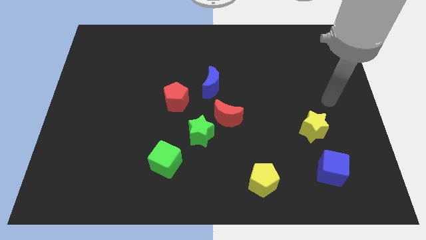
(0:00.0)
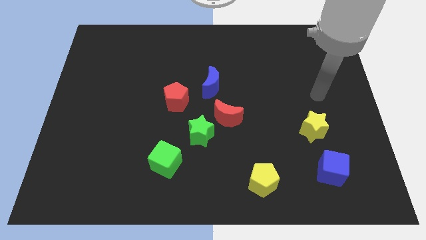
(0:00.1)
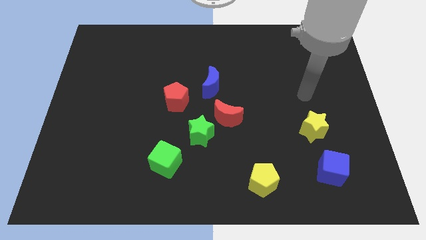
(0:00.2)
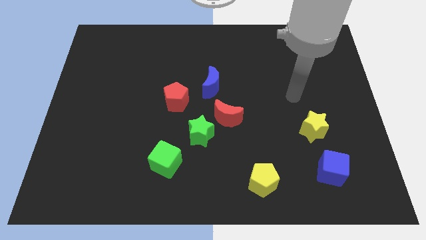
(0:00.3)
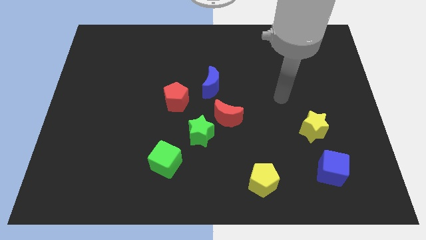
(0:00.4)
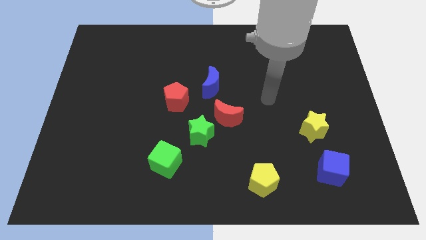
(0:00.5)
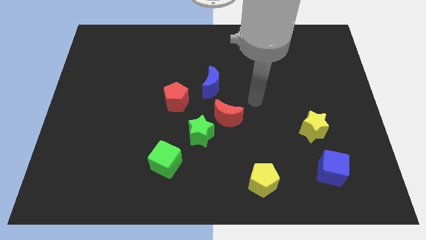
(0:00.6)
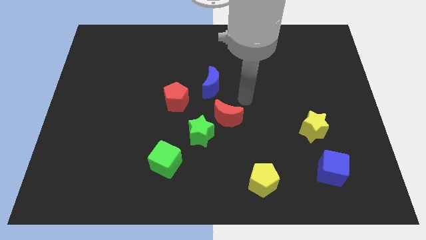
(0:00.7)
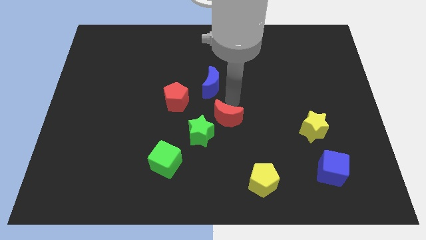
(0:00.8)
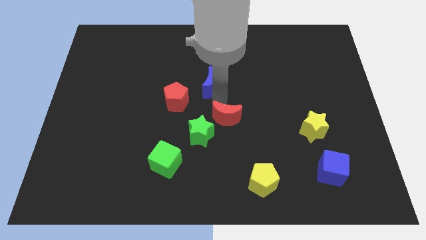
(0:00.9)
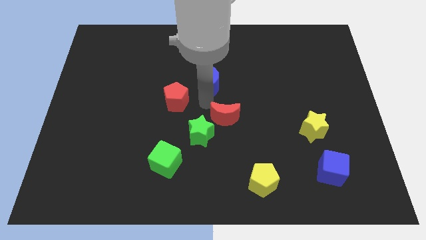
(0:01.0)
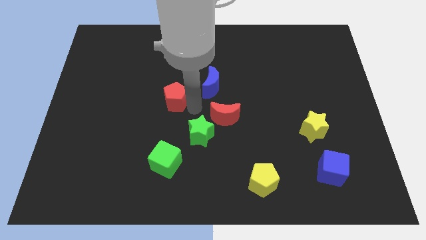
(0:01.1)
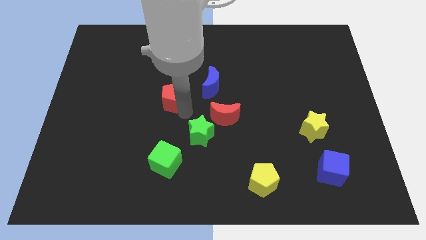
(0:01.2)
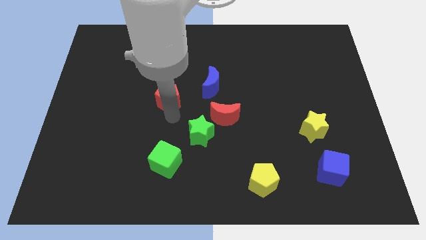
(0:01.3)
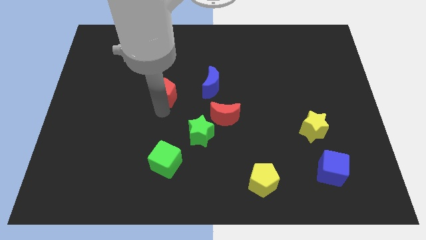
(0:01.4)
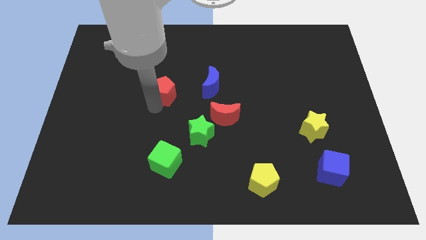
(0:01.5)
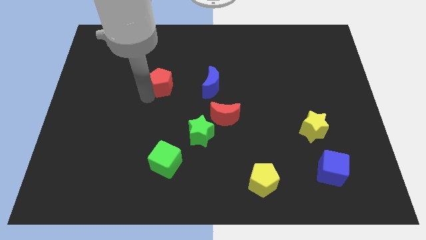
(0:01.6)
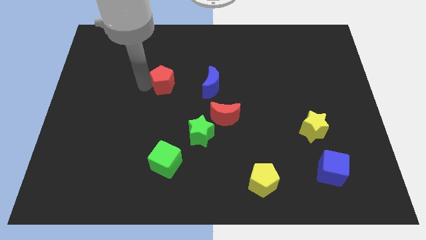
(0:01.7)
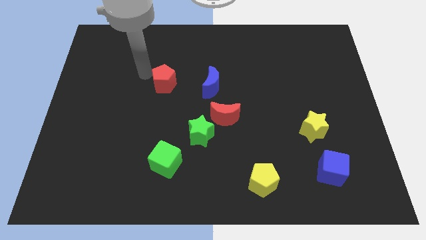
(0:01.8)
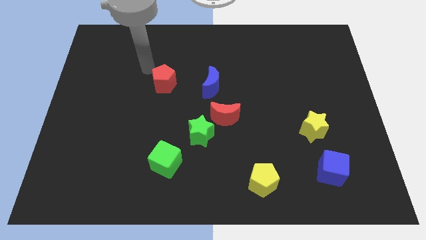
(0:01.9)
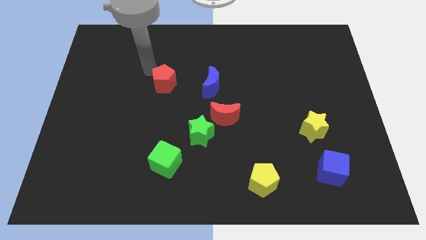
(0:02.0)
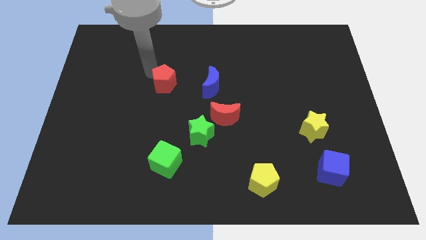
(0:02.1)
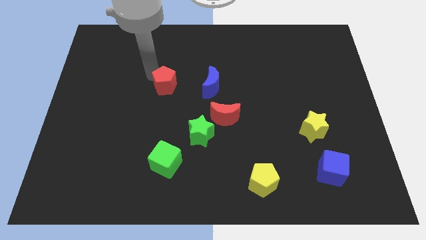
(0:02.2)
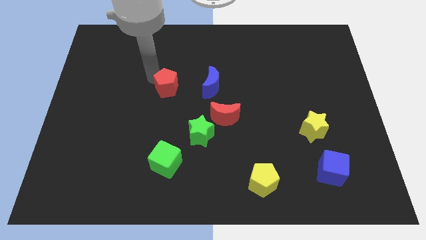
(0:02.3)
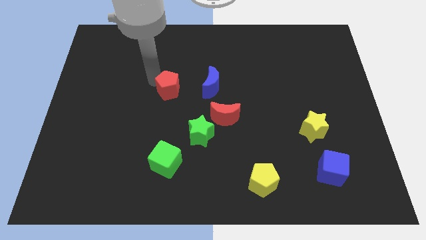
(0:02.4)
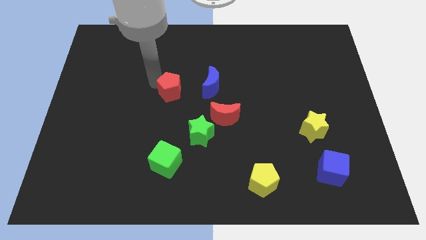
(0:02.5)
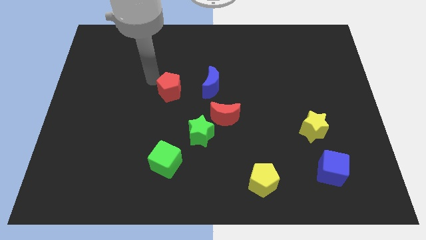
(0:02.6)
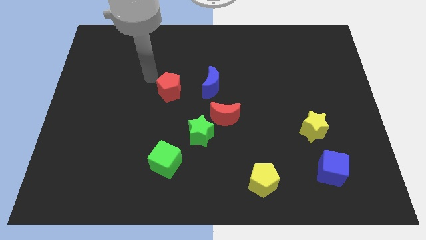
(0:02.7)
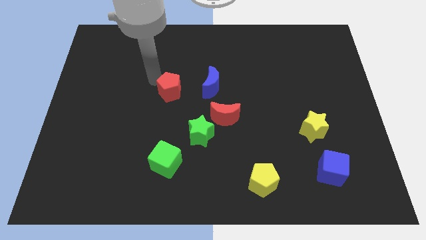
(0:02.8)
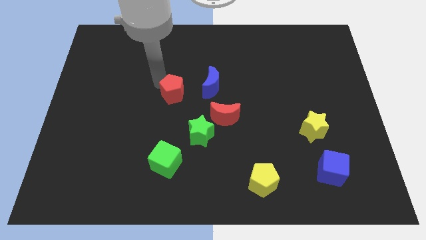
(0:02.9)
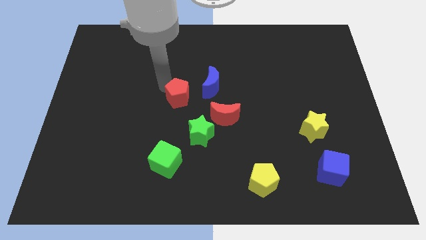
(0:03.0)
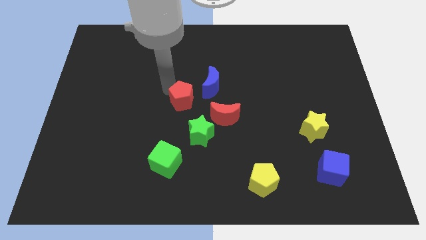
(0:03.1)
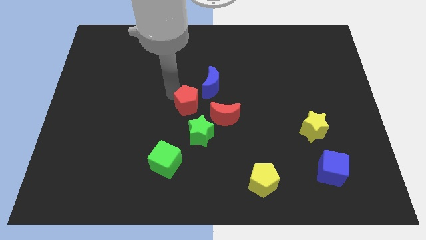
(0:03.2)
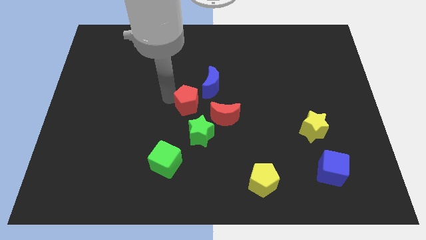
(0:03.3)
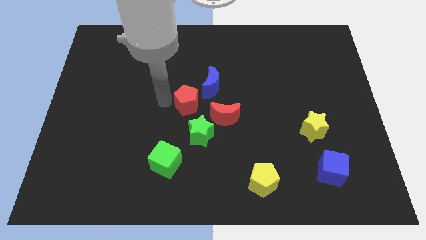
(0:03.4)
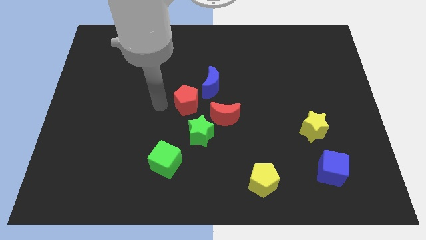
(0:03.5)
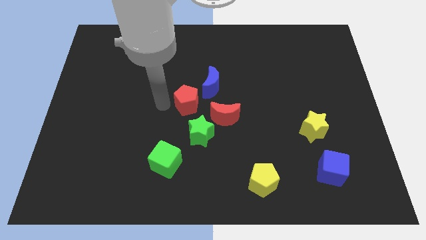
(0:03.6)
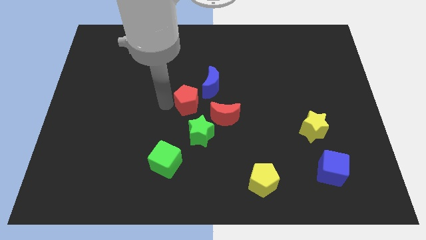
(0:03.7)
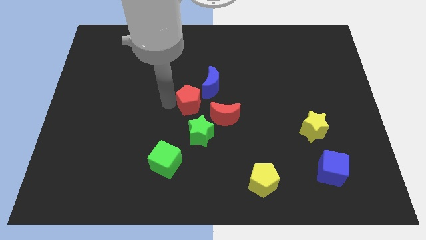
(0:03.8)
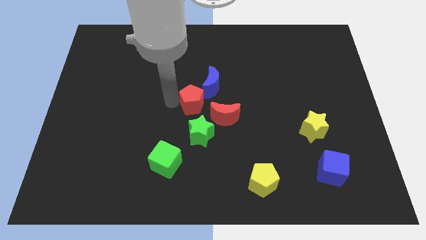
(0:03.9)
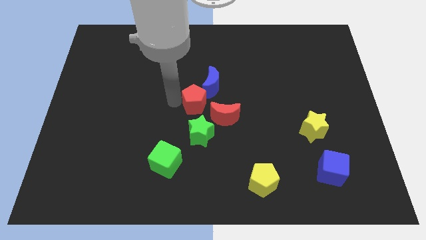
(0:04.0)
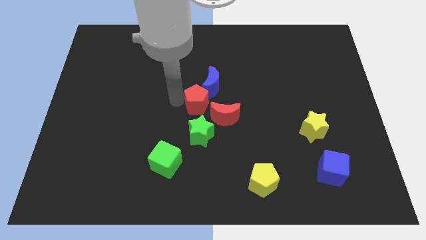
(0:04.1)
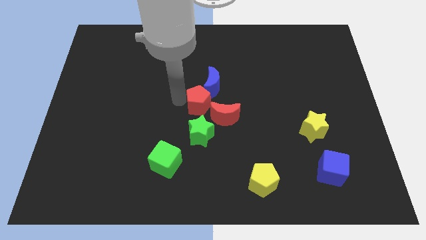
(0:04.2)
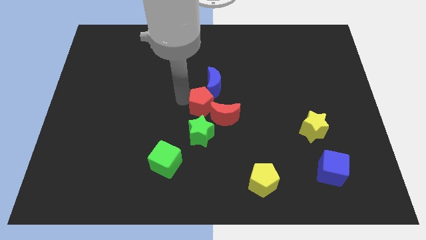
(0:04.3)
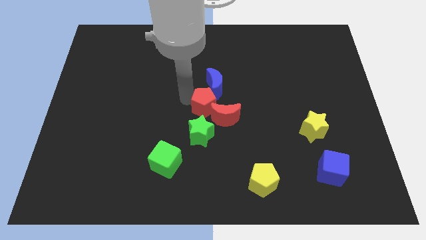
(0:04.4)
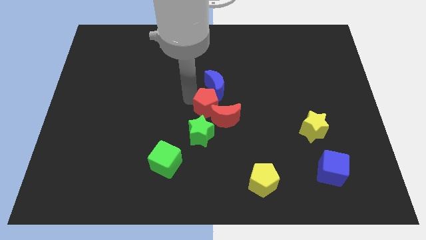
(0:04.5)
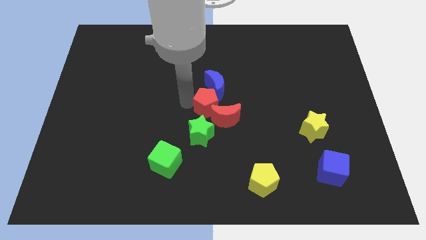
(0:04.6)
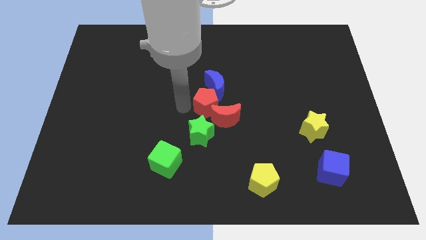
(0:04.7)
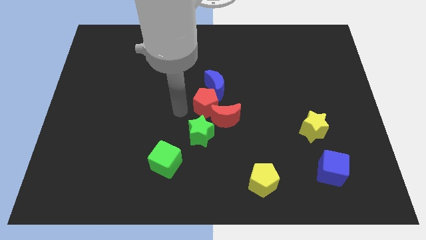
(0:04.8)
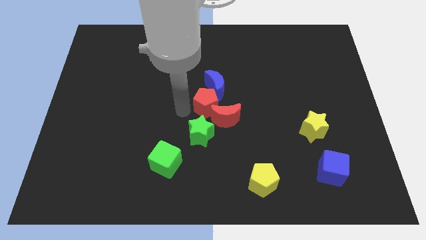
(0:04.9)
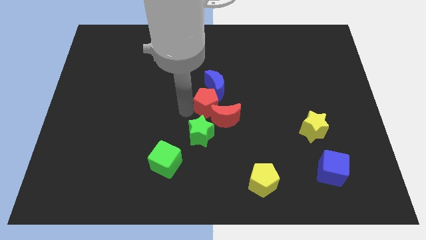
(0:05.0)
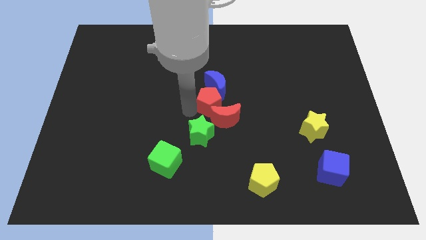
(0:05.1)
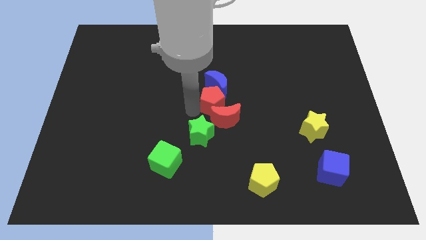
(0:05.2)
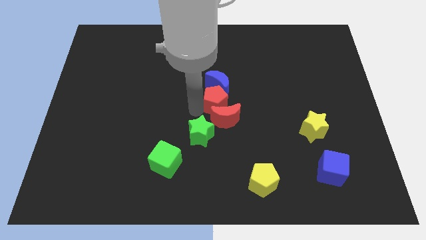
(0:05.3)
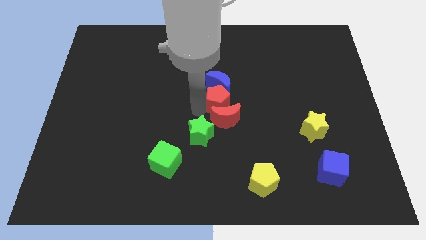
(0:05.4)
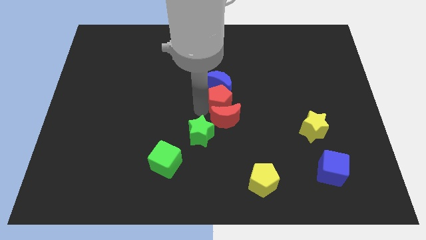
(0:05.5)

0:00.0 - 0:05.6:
slide the red pentagon to the top right of the red moon

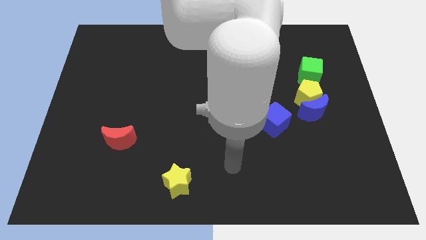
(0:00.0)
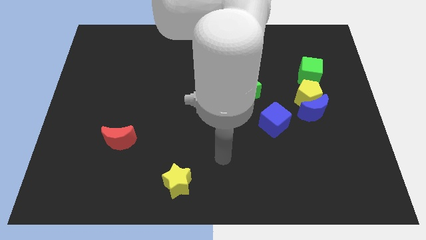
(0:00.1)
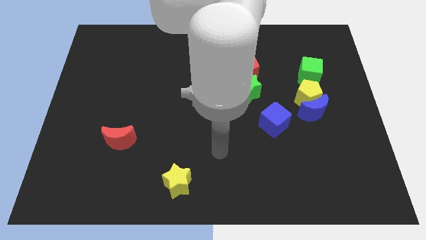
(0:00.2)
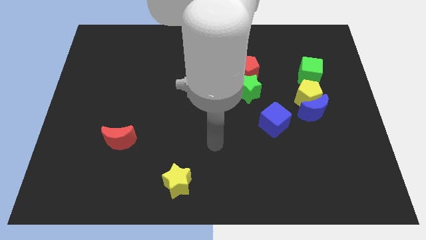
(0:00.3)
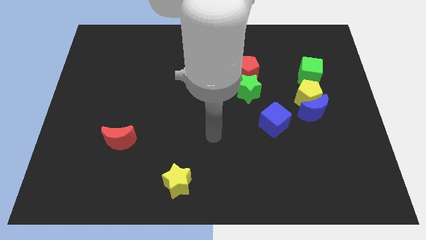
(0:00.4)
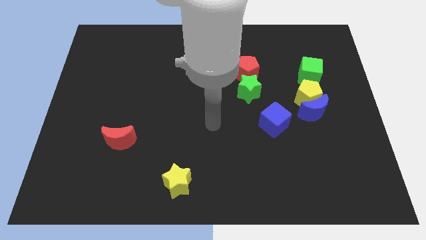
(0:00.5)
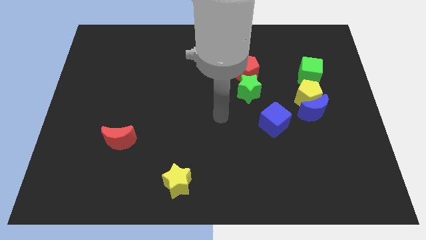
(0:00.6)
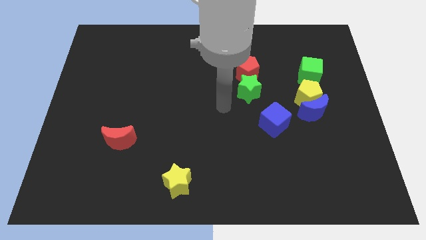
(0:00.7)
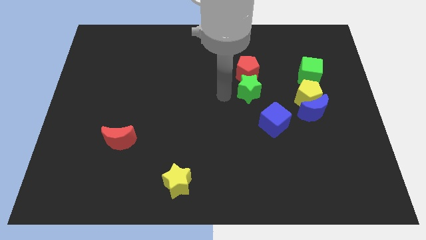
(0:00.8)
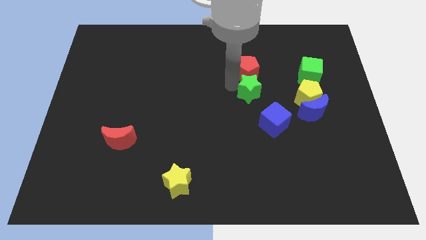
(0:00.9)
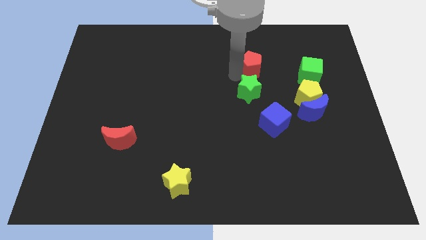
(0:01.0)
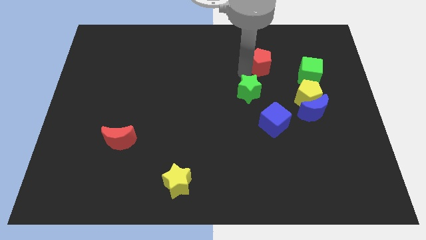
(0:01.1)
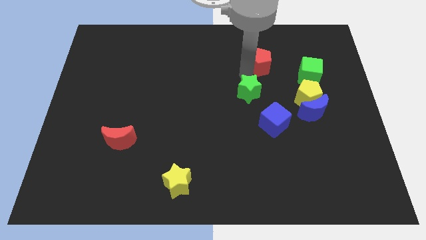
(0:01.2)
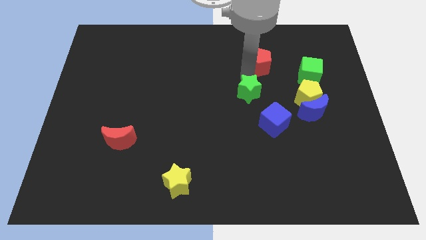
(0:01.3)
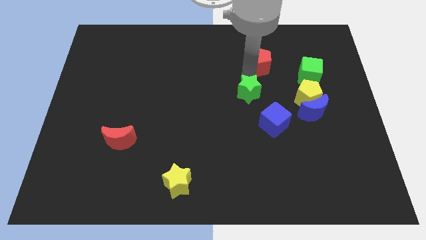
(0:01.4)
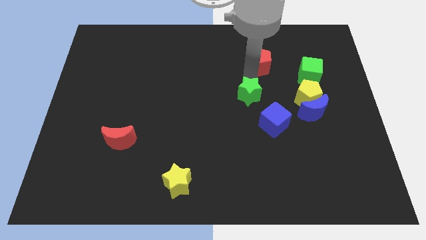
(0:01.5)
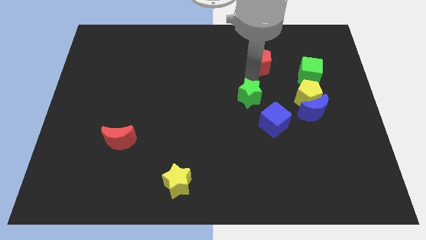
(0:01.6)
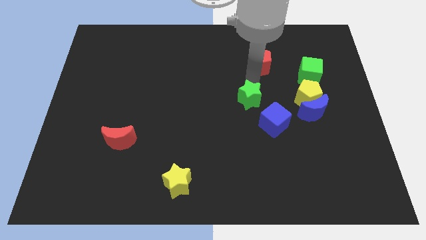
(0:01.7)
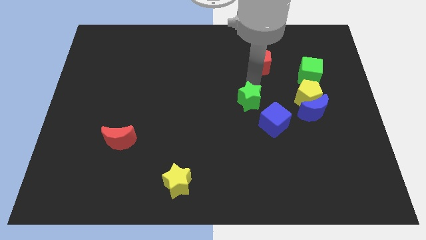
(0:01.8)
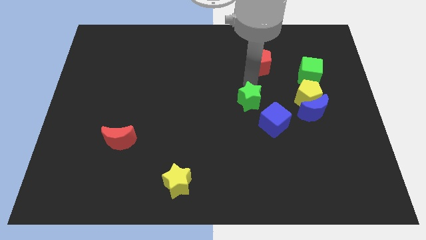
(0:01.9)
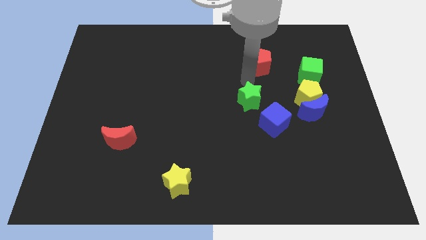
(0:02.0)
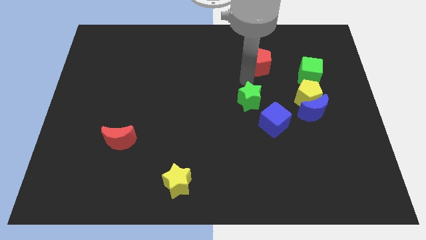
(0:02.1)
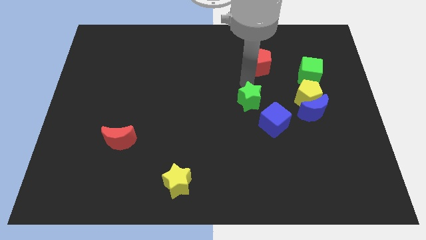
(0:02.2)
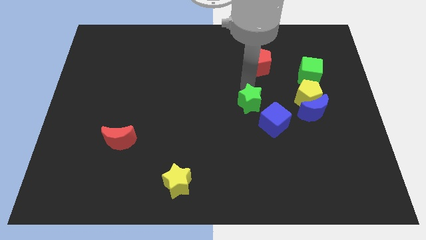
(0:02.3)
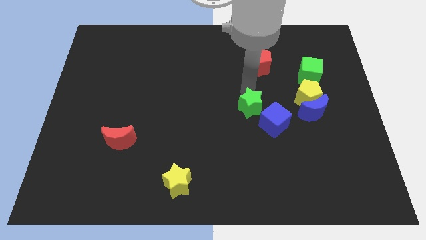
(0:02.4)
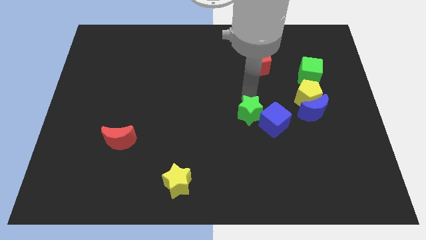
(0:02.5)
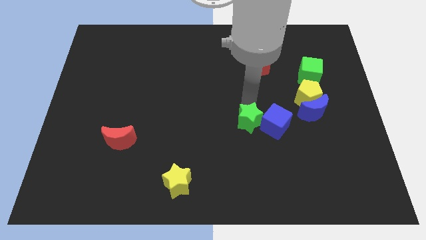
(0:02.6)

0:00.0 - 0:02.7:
push the green star diagonally down and to the left of the blue cube
